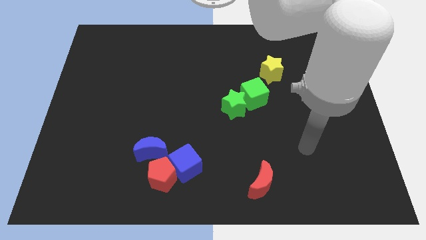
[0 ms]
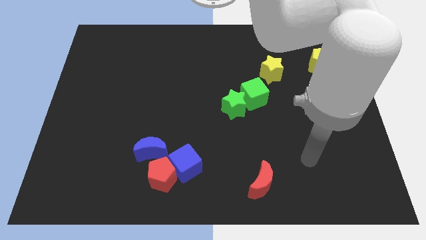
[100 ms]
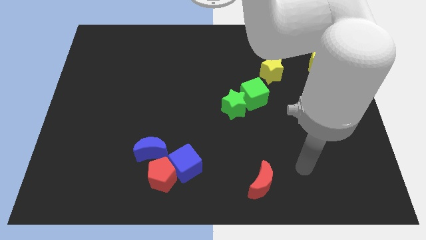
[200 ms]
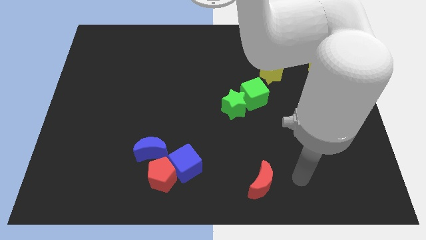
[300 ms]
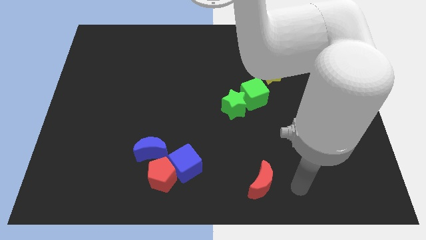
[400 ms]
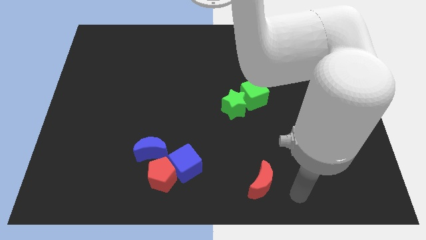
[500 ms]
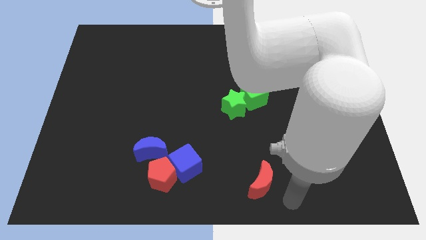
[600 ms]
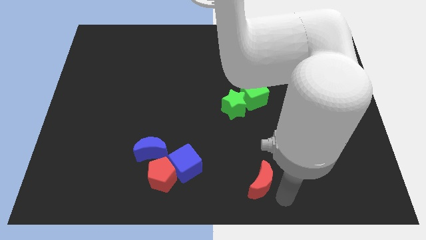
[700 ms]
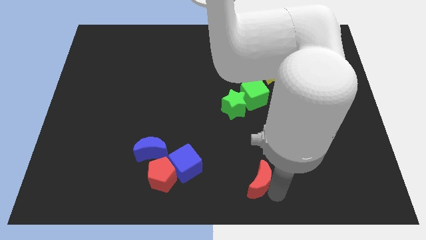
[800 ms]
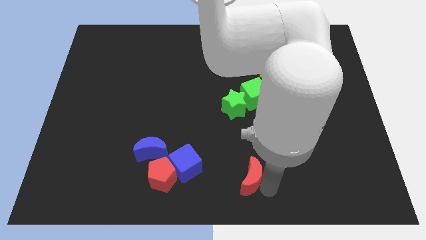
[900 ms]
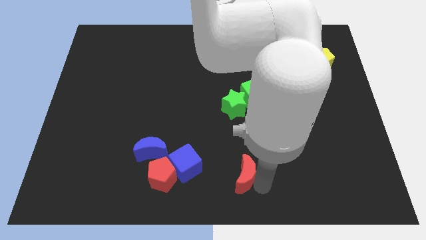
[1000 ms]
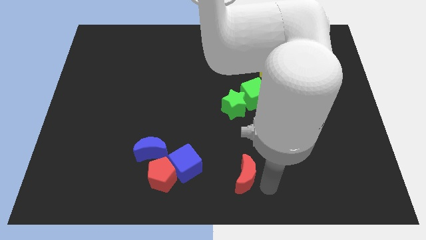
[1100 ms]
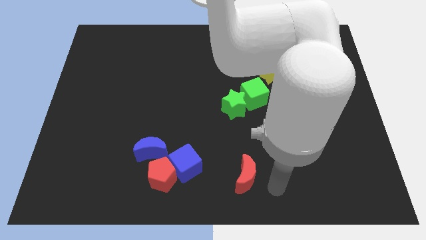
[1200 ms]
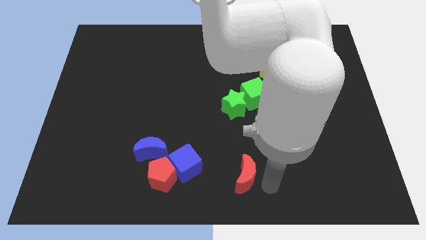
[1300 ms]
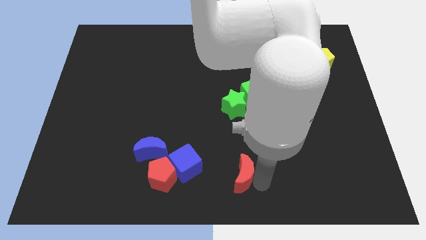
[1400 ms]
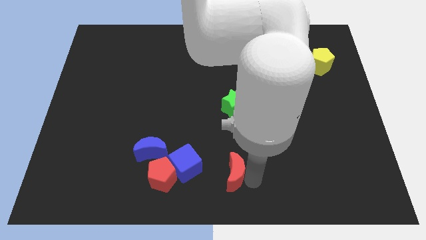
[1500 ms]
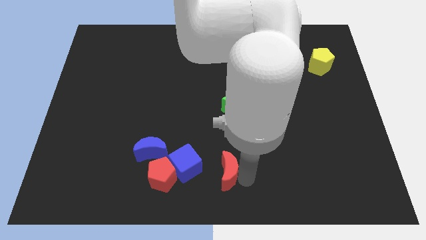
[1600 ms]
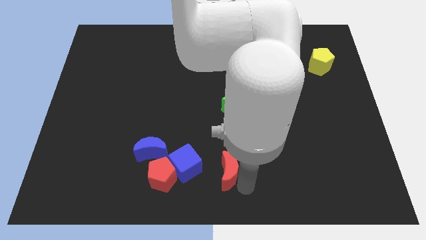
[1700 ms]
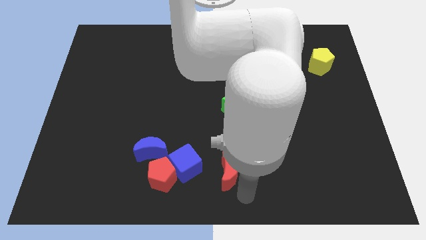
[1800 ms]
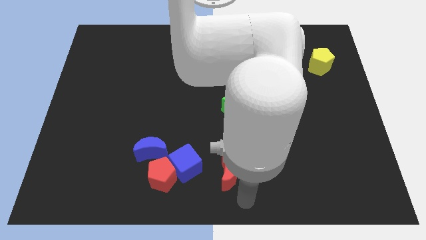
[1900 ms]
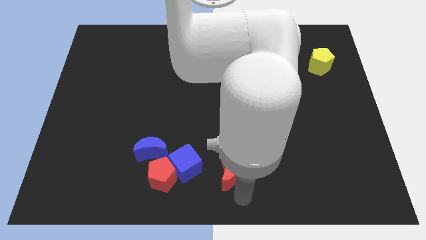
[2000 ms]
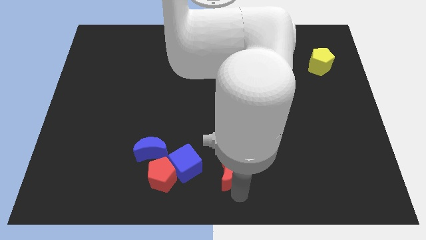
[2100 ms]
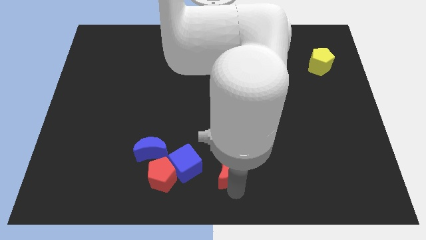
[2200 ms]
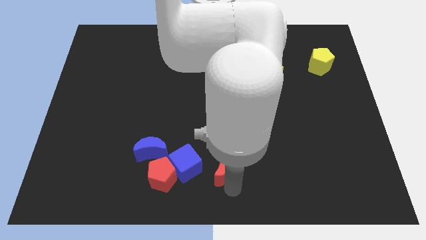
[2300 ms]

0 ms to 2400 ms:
slightly slide the red moon up and then left

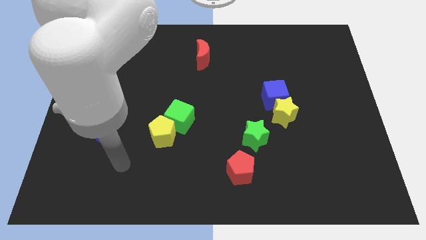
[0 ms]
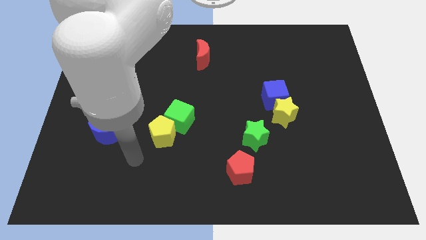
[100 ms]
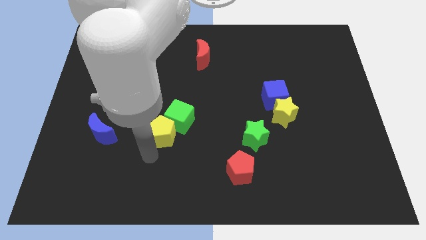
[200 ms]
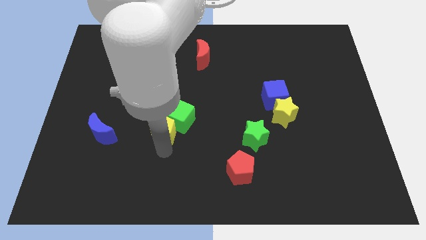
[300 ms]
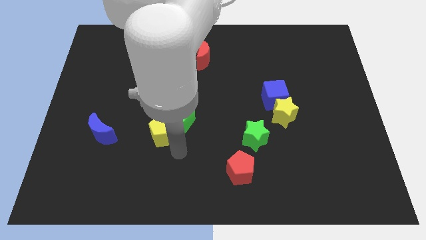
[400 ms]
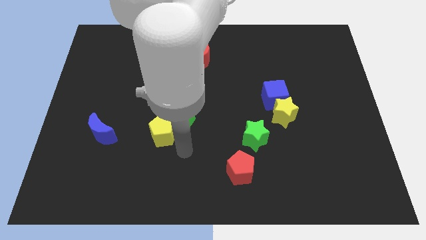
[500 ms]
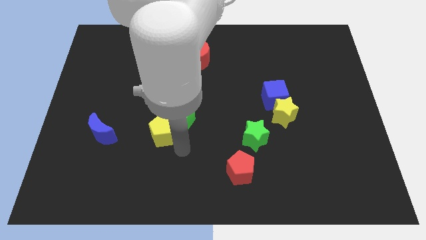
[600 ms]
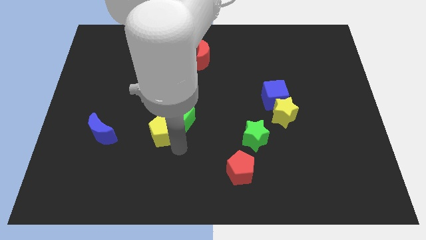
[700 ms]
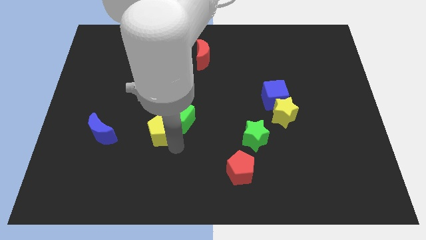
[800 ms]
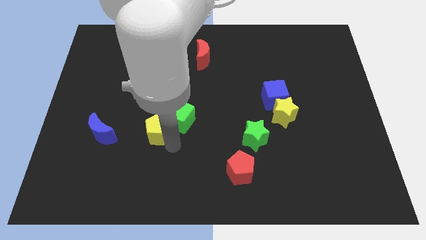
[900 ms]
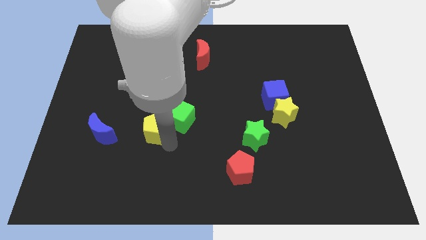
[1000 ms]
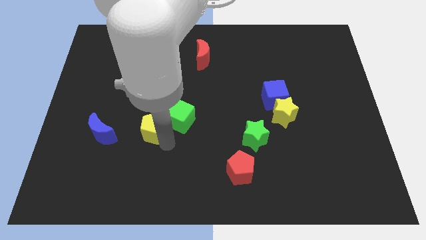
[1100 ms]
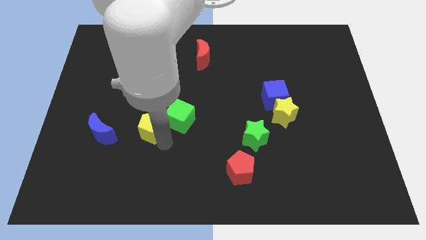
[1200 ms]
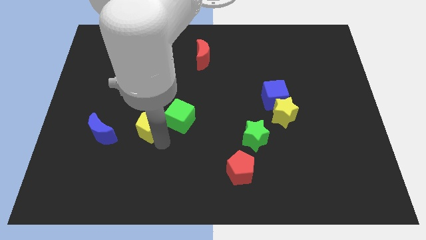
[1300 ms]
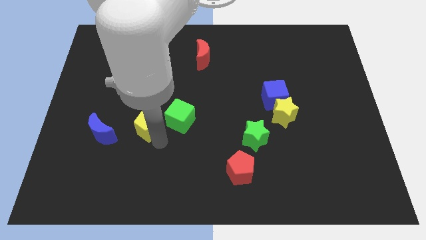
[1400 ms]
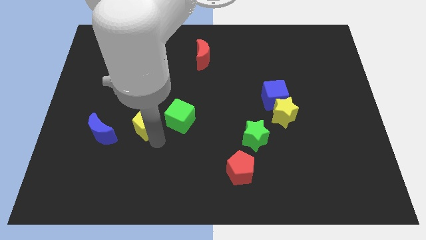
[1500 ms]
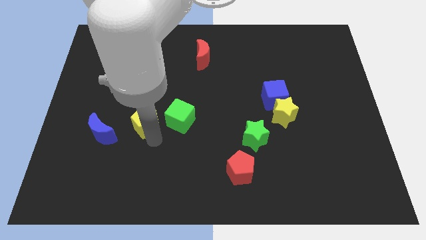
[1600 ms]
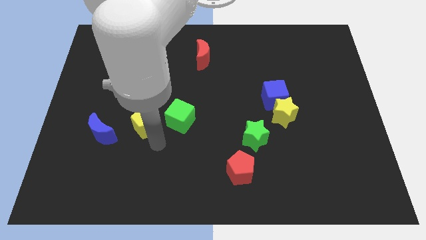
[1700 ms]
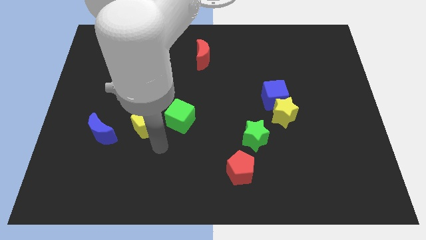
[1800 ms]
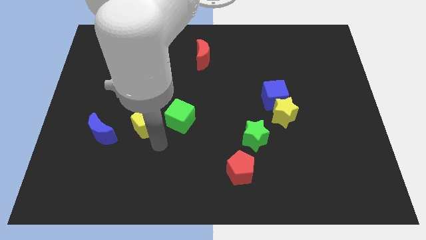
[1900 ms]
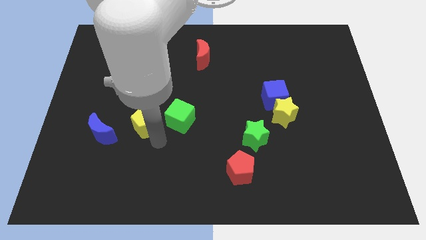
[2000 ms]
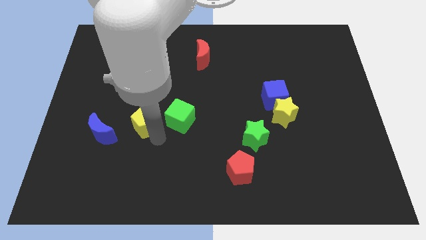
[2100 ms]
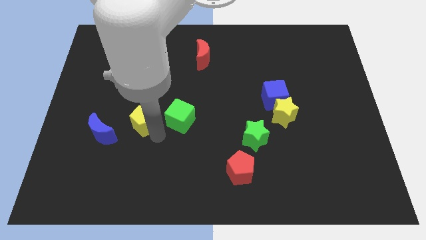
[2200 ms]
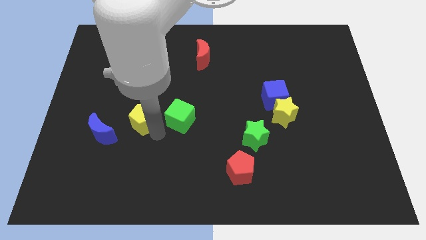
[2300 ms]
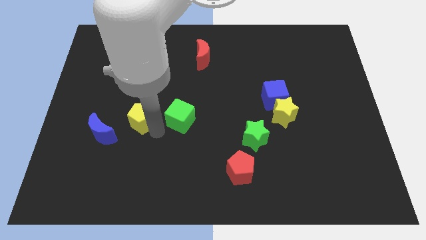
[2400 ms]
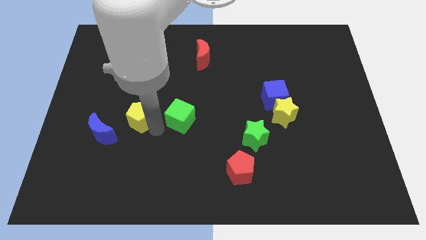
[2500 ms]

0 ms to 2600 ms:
slightly push the yellow pentagon upwards and then left

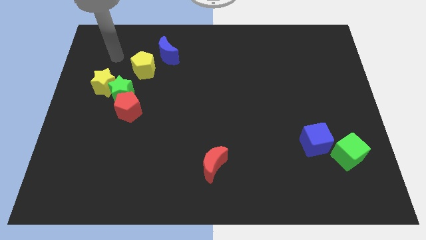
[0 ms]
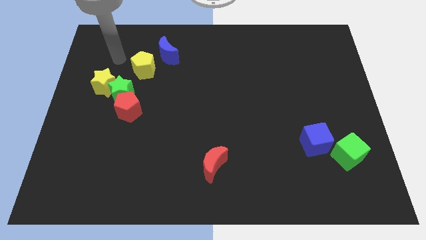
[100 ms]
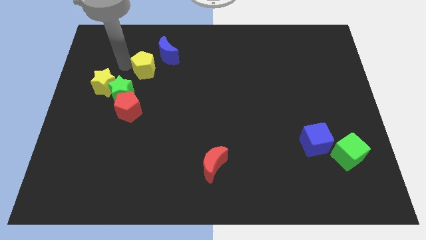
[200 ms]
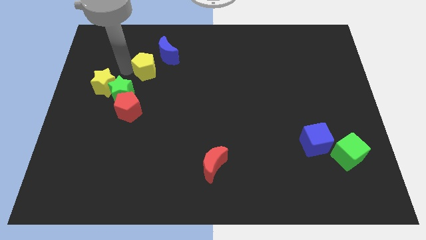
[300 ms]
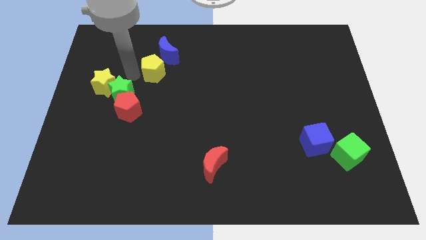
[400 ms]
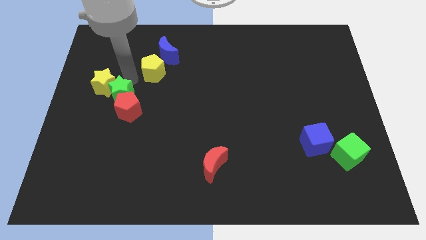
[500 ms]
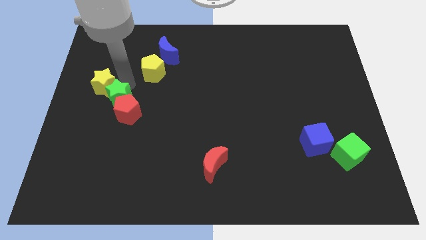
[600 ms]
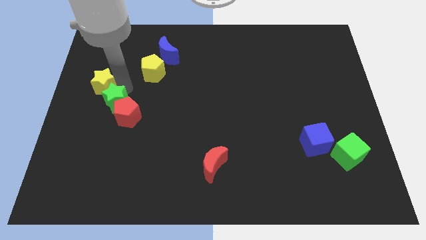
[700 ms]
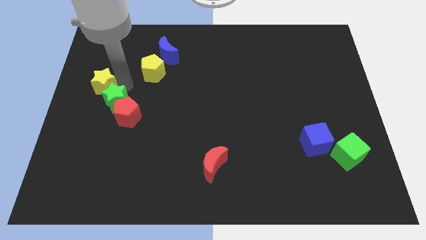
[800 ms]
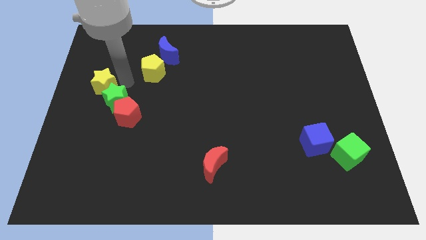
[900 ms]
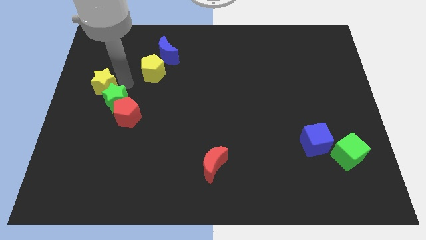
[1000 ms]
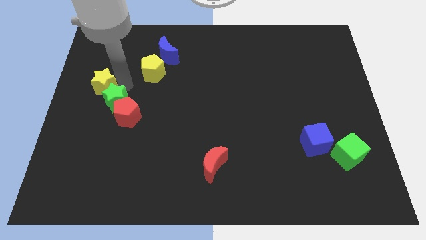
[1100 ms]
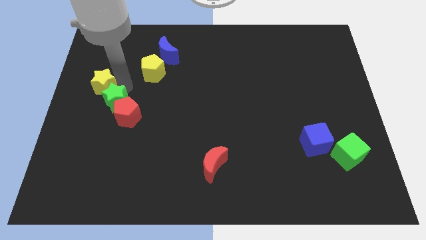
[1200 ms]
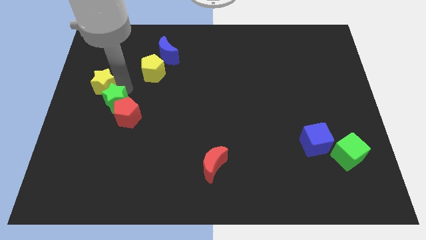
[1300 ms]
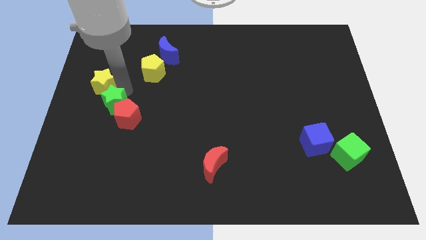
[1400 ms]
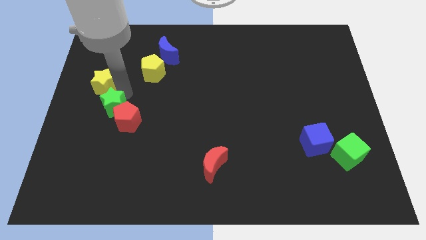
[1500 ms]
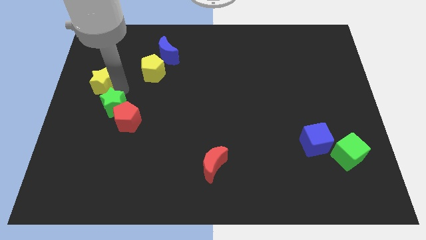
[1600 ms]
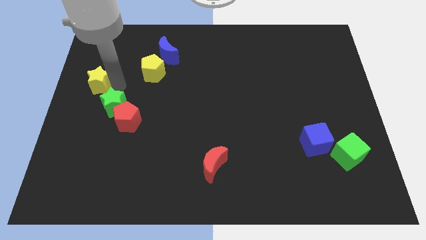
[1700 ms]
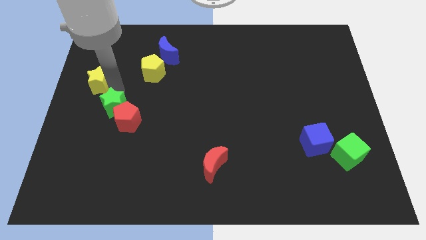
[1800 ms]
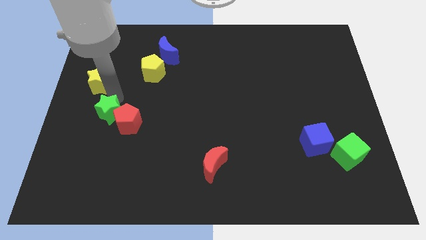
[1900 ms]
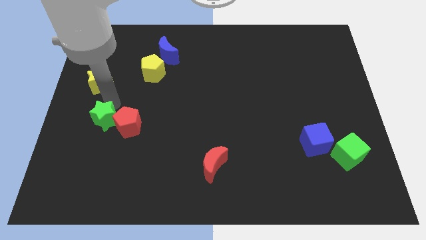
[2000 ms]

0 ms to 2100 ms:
move the green star downwards a little

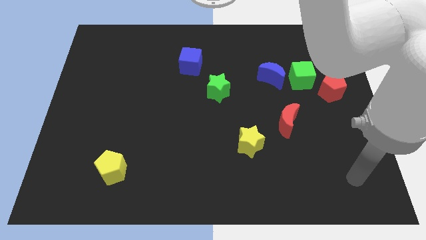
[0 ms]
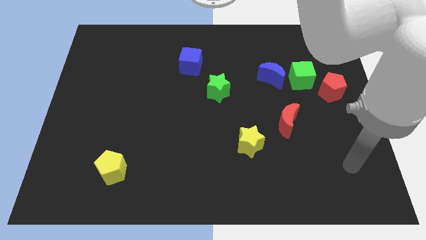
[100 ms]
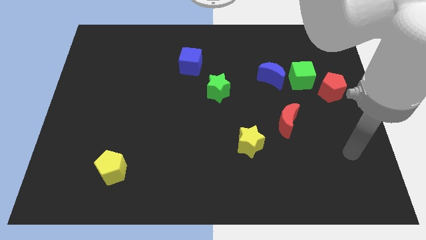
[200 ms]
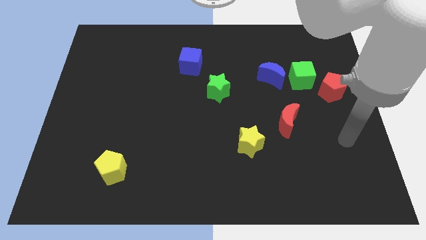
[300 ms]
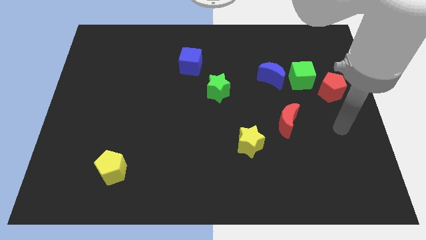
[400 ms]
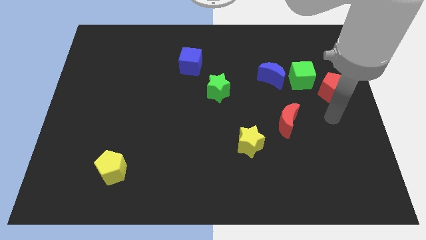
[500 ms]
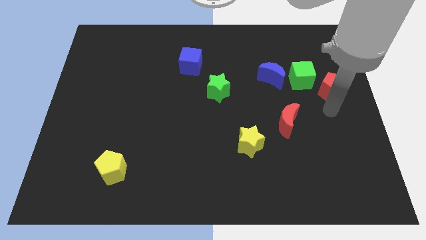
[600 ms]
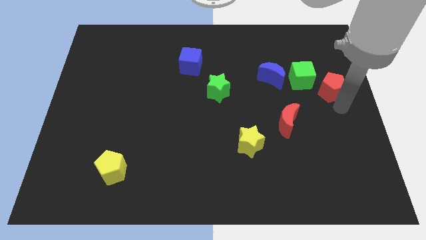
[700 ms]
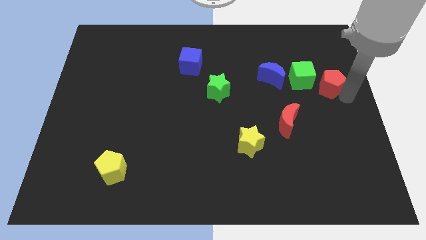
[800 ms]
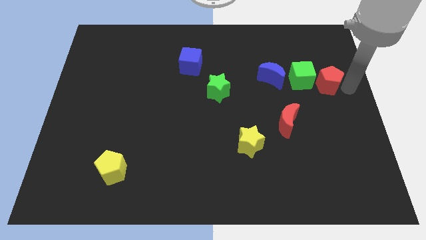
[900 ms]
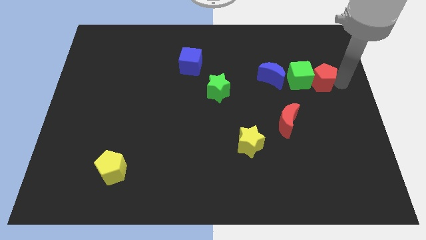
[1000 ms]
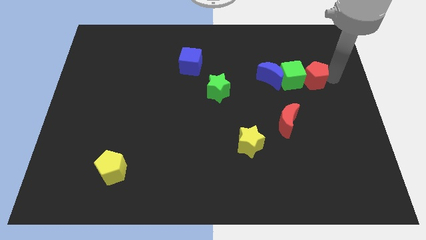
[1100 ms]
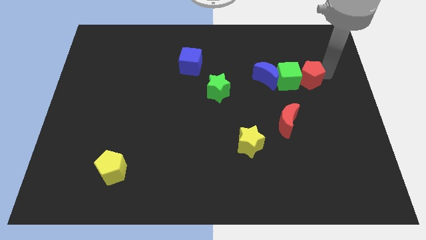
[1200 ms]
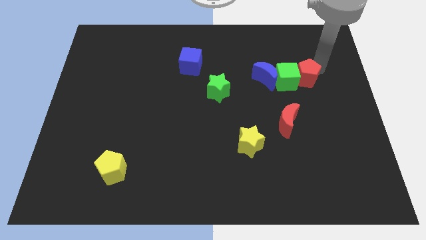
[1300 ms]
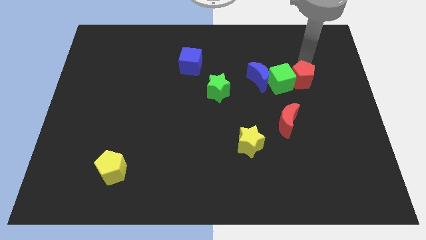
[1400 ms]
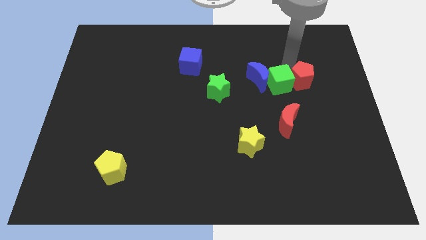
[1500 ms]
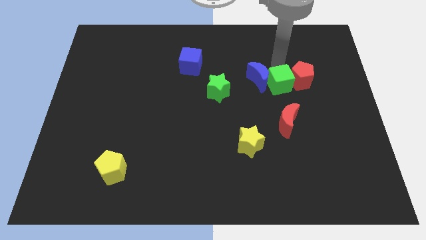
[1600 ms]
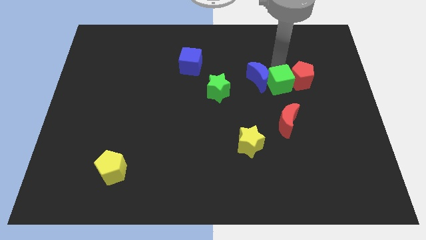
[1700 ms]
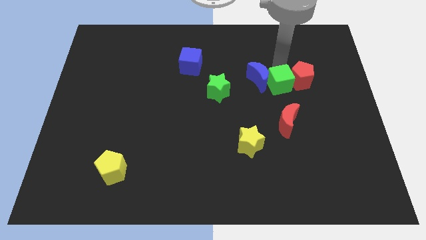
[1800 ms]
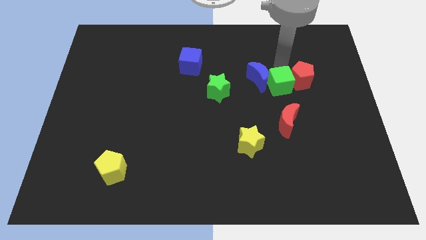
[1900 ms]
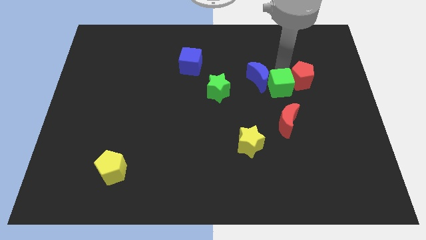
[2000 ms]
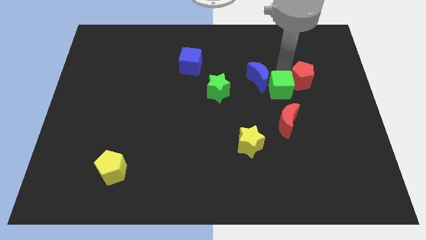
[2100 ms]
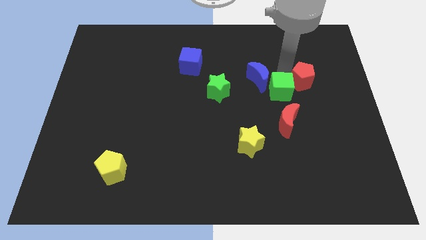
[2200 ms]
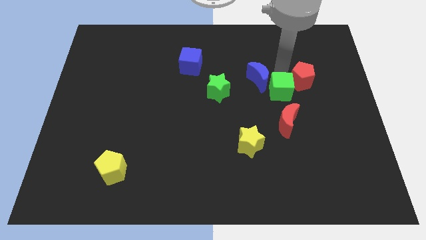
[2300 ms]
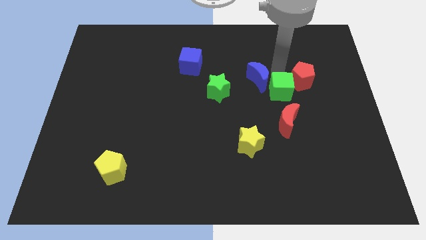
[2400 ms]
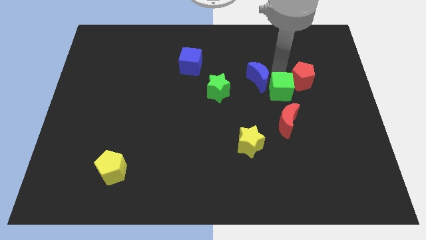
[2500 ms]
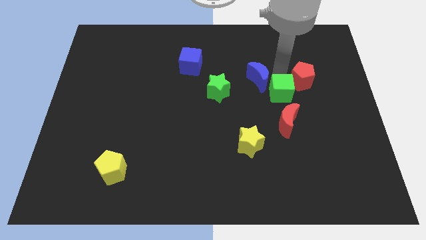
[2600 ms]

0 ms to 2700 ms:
slightly push the green cube diagonally down and left
